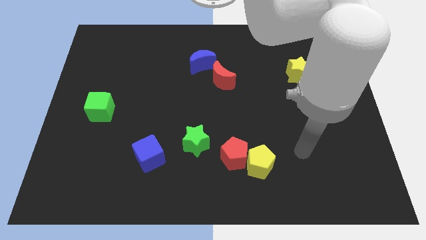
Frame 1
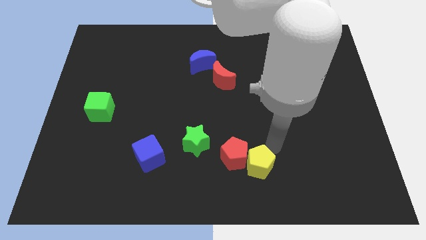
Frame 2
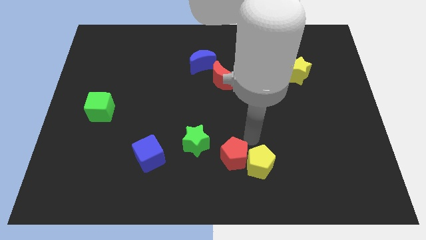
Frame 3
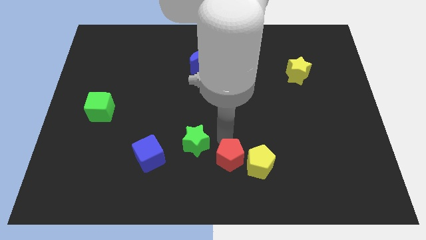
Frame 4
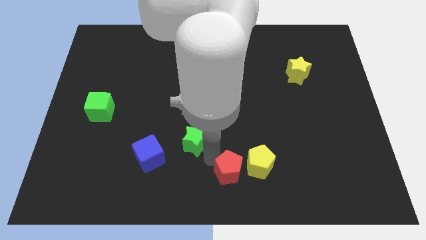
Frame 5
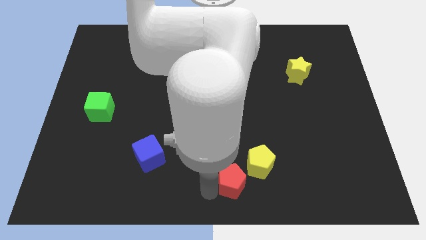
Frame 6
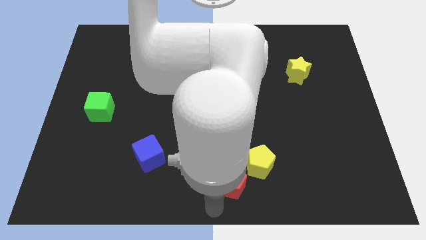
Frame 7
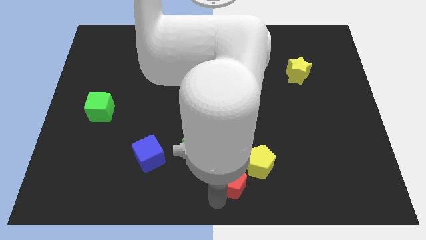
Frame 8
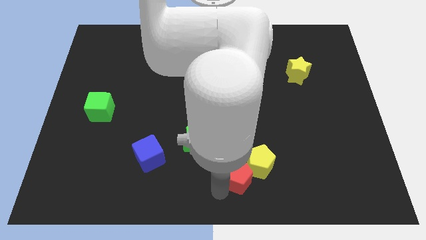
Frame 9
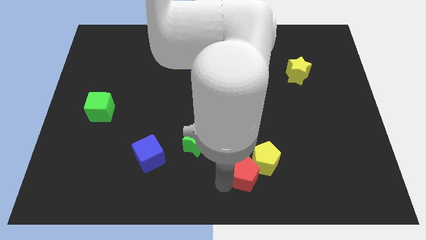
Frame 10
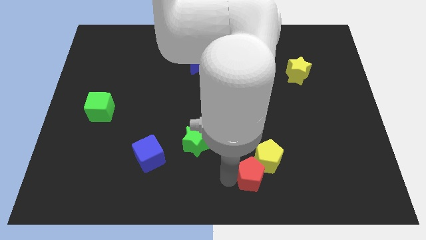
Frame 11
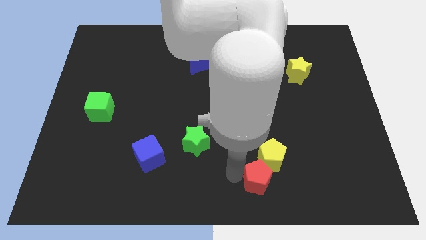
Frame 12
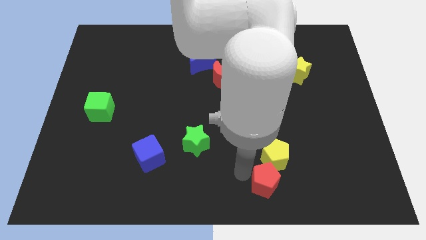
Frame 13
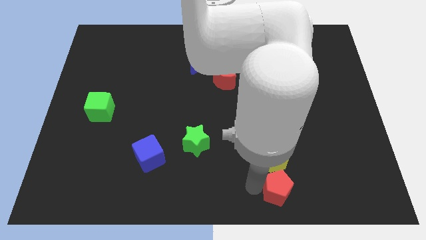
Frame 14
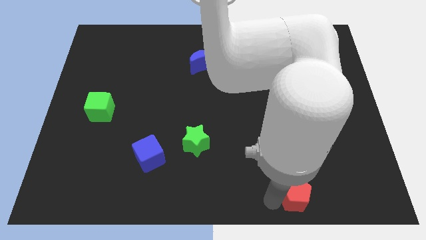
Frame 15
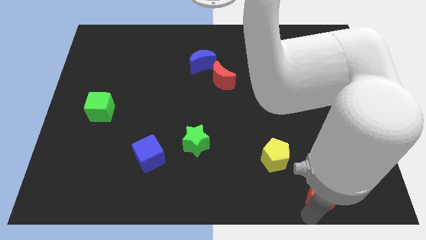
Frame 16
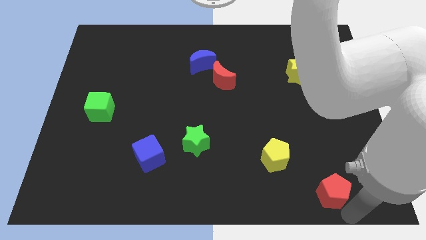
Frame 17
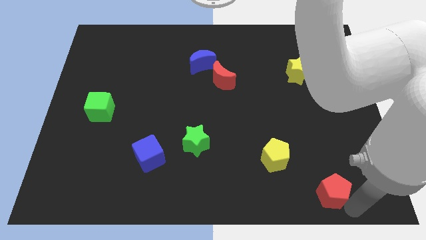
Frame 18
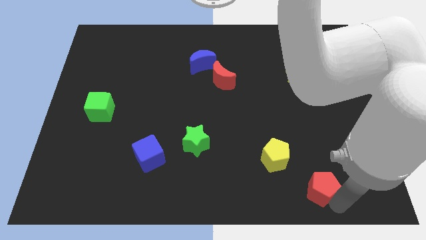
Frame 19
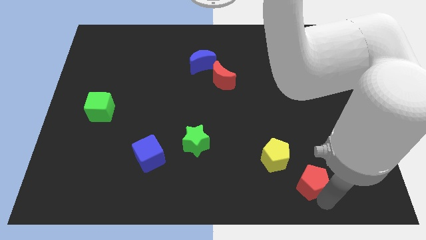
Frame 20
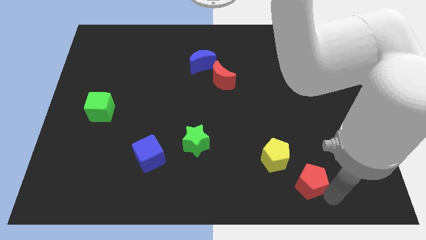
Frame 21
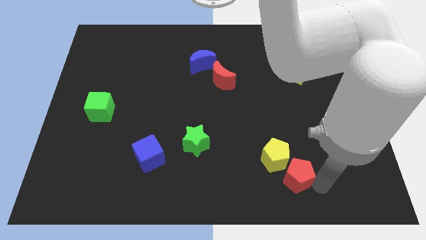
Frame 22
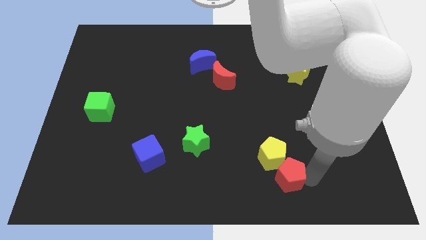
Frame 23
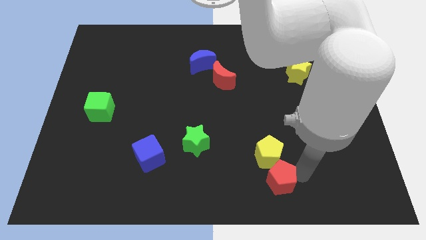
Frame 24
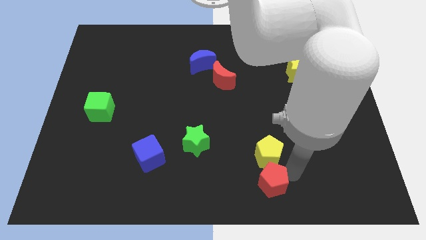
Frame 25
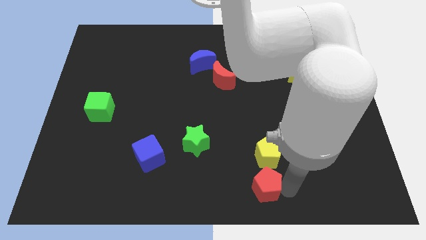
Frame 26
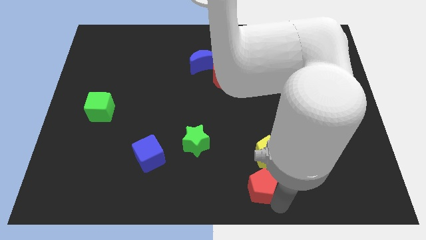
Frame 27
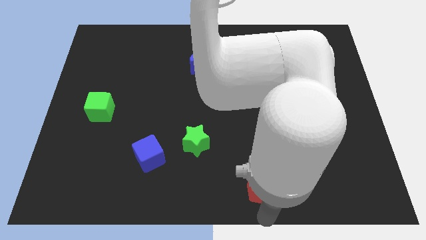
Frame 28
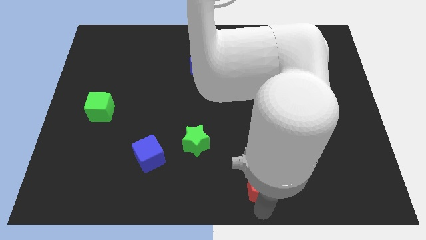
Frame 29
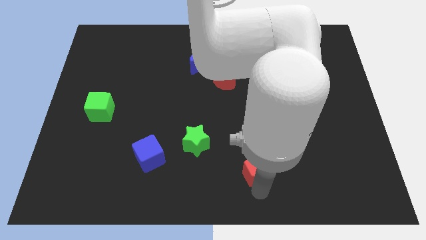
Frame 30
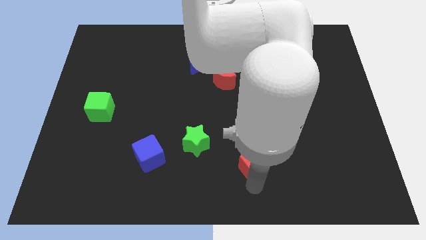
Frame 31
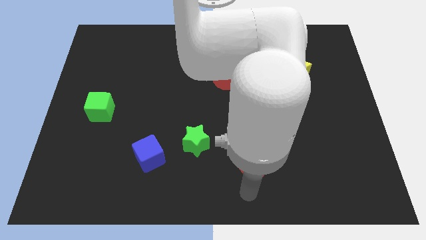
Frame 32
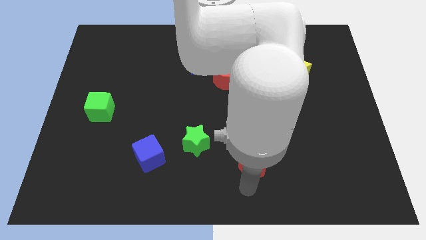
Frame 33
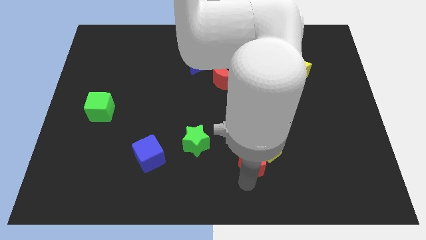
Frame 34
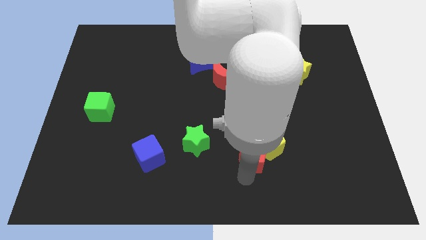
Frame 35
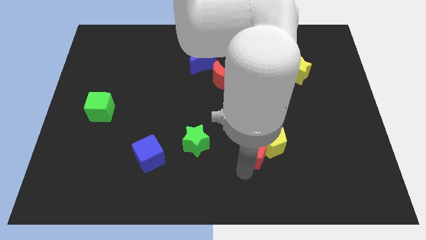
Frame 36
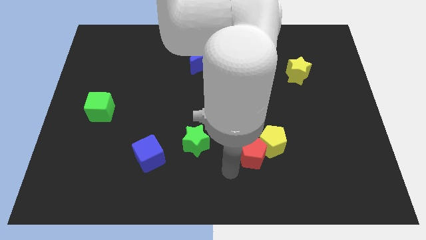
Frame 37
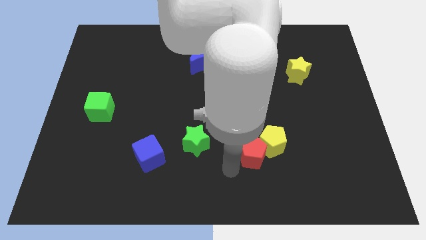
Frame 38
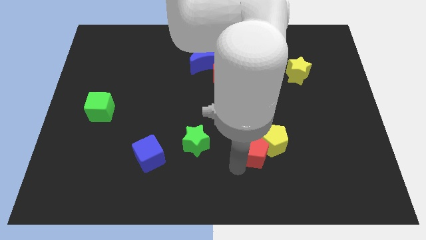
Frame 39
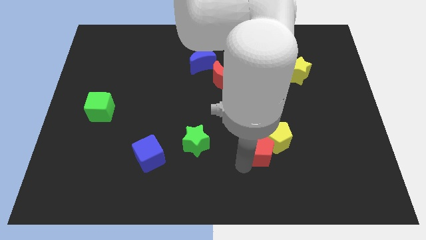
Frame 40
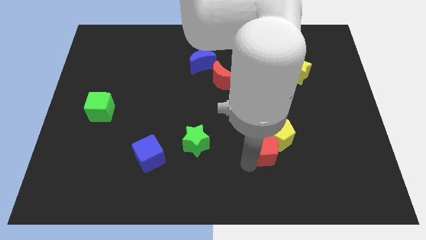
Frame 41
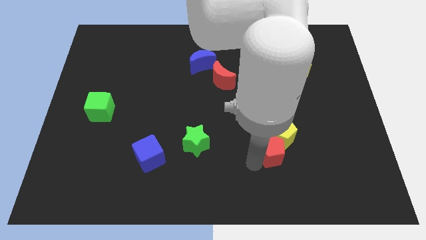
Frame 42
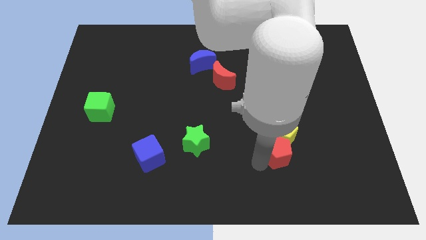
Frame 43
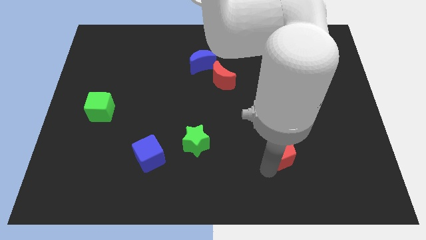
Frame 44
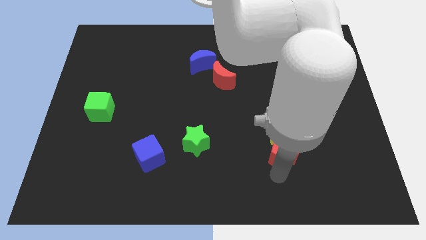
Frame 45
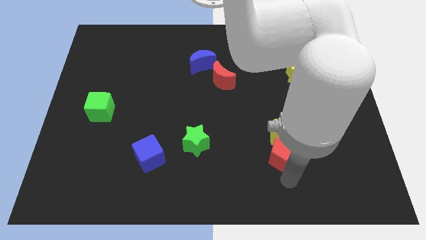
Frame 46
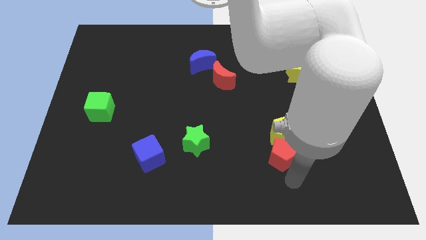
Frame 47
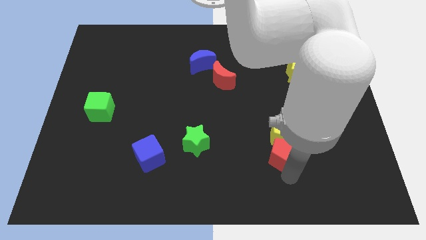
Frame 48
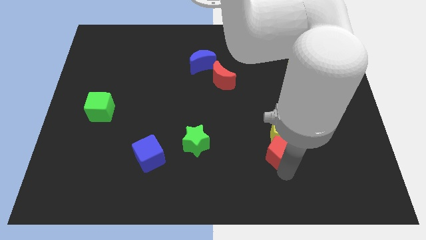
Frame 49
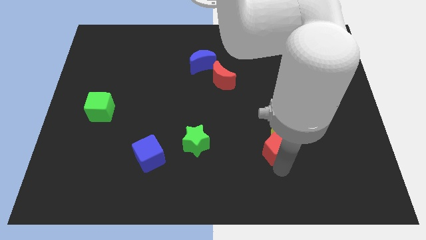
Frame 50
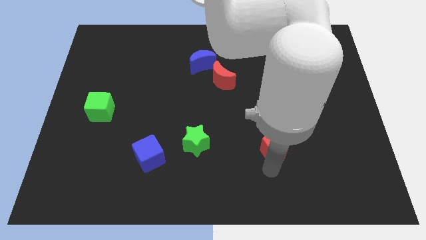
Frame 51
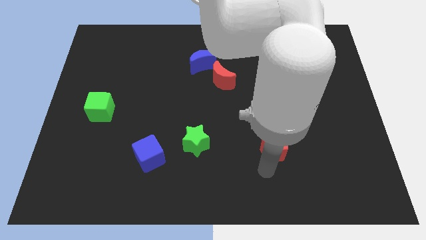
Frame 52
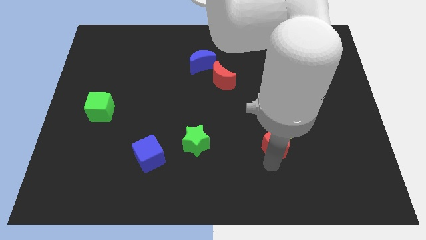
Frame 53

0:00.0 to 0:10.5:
slide the red pentagon upwards and then right slightly

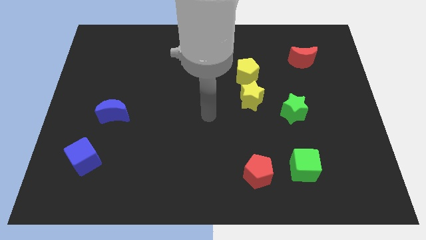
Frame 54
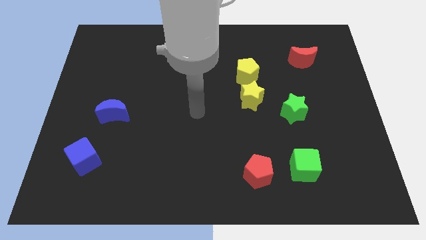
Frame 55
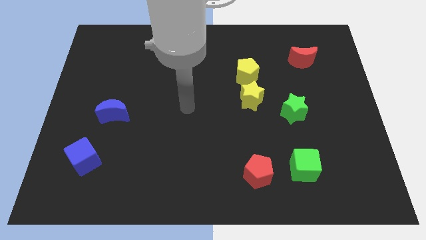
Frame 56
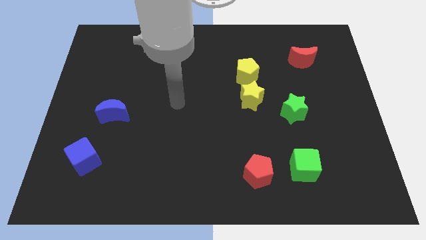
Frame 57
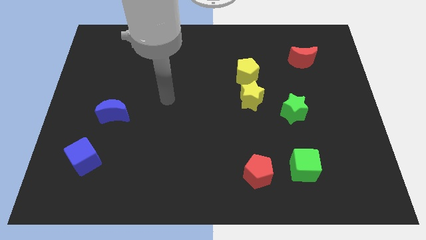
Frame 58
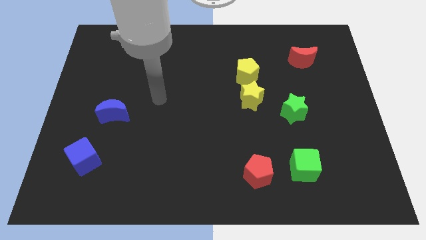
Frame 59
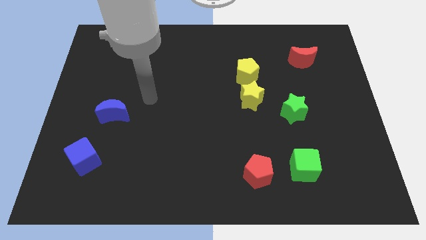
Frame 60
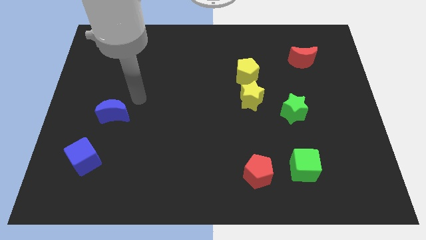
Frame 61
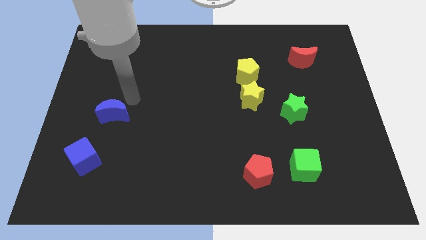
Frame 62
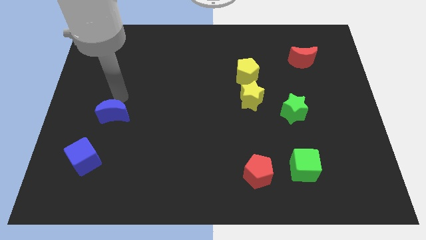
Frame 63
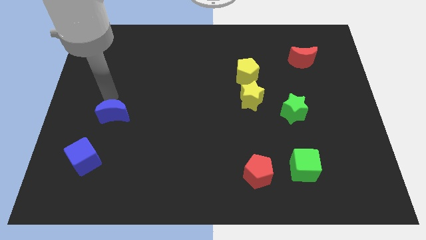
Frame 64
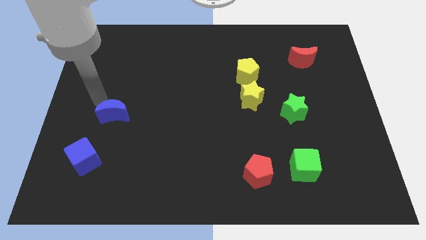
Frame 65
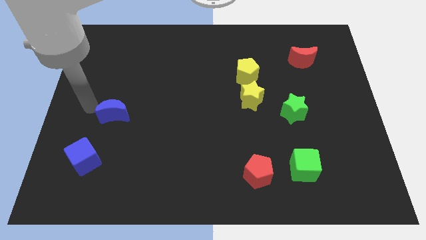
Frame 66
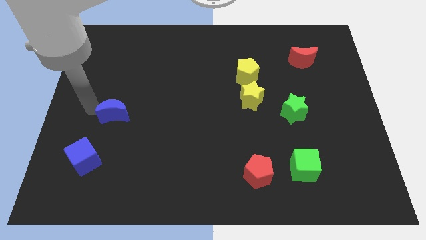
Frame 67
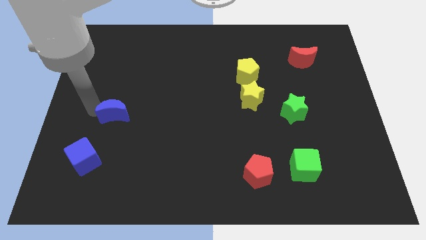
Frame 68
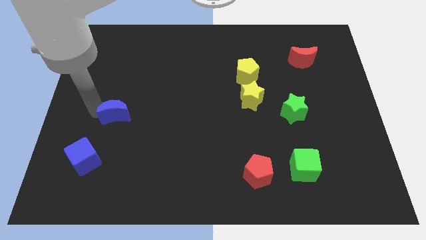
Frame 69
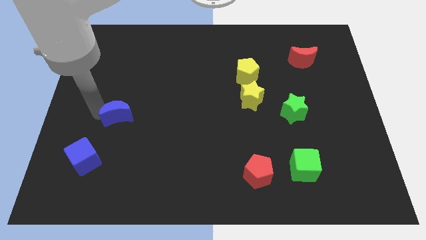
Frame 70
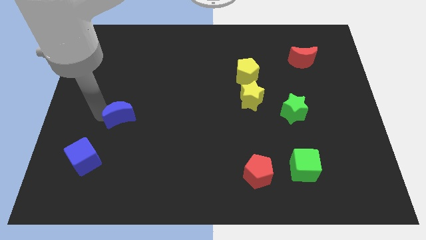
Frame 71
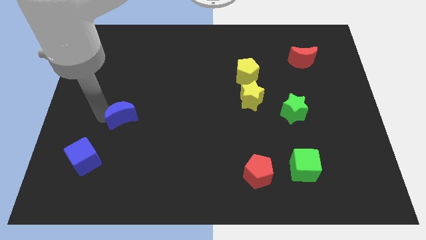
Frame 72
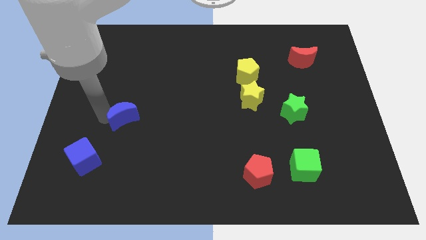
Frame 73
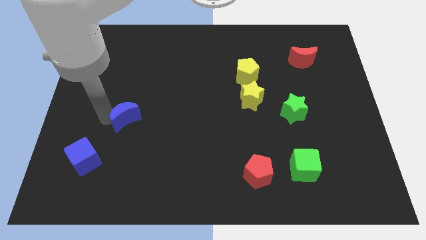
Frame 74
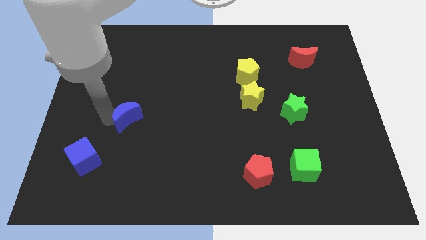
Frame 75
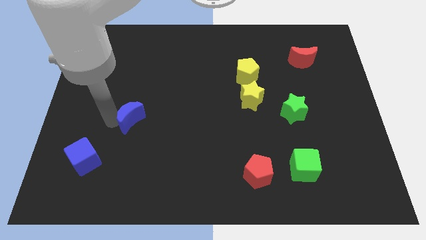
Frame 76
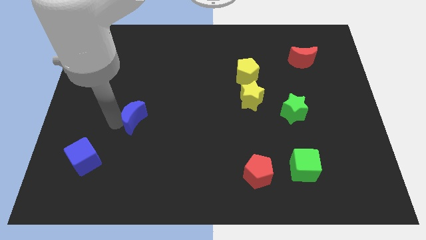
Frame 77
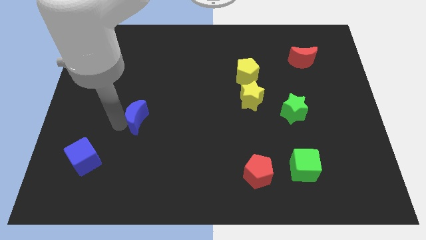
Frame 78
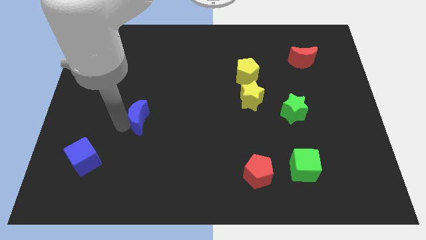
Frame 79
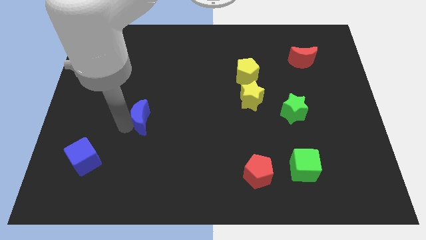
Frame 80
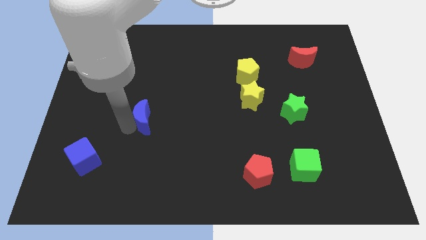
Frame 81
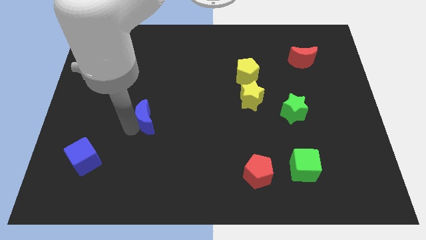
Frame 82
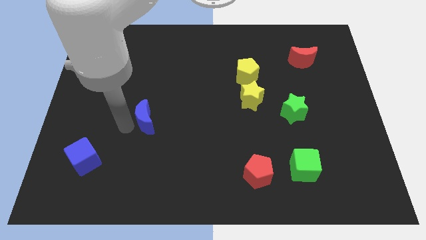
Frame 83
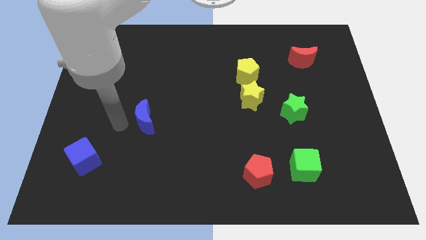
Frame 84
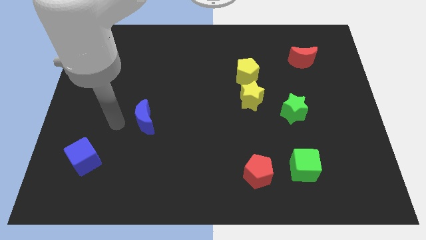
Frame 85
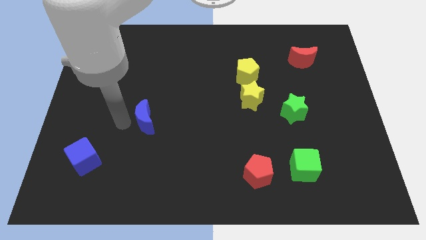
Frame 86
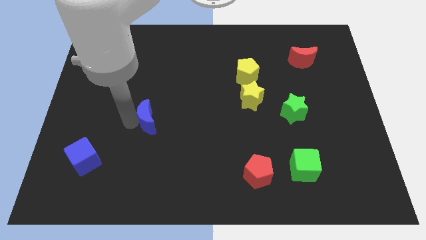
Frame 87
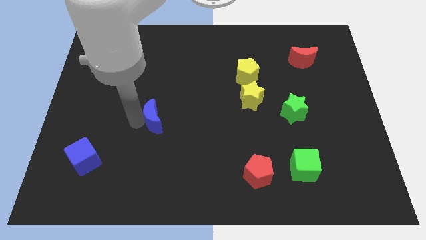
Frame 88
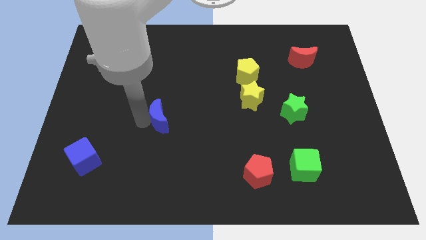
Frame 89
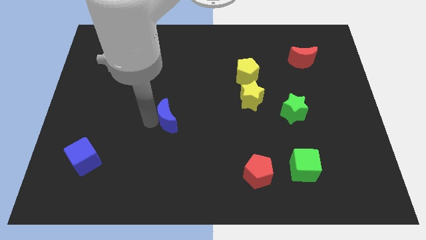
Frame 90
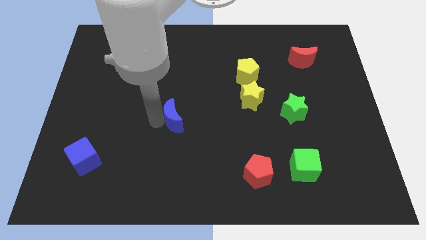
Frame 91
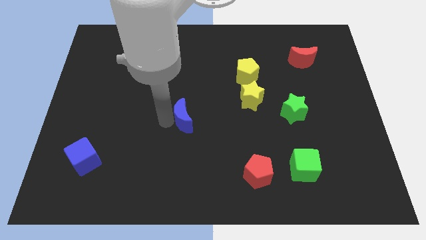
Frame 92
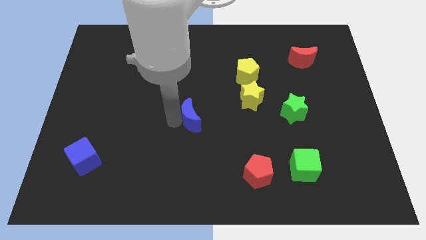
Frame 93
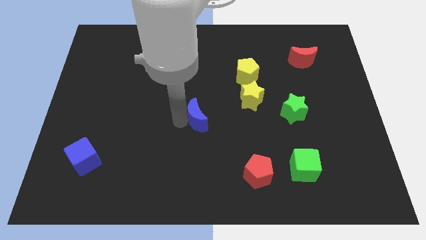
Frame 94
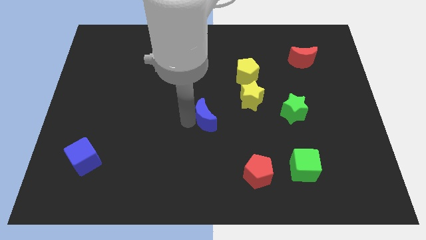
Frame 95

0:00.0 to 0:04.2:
move the blue moon right
